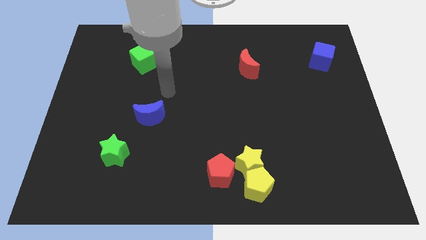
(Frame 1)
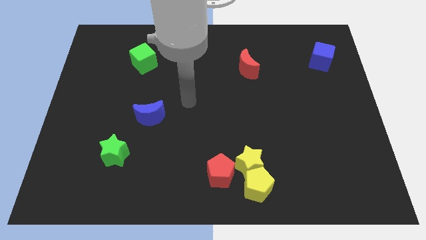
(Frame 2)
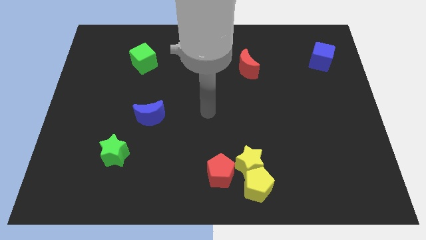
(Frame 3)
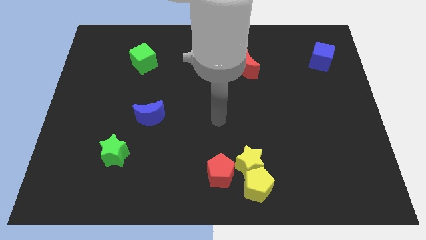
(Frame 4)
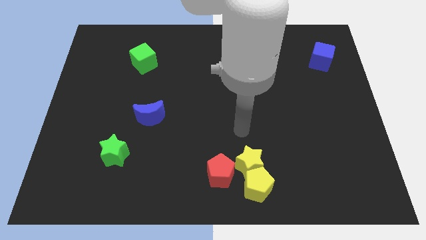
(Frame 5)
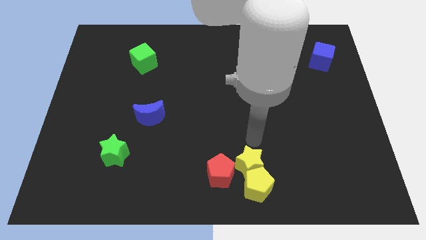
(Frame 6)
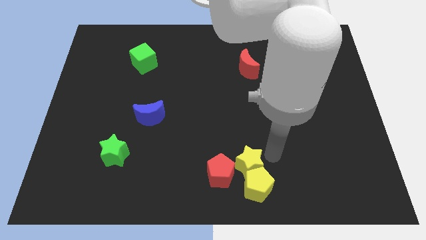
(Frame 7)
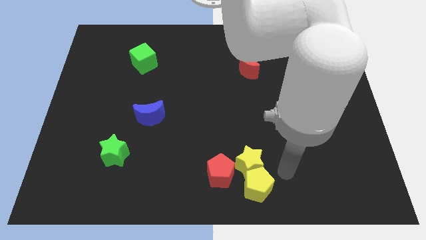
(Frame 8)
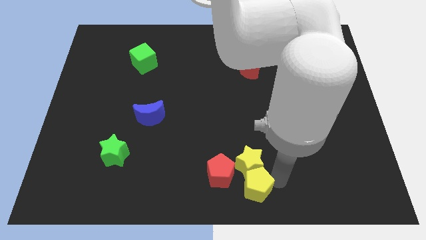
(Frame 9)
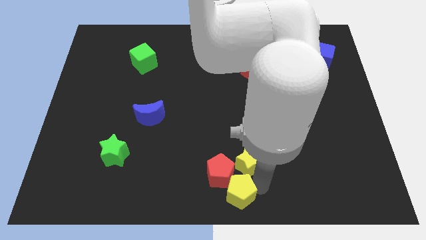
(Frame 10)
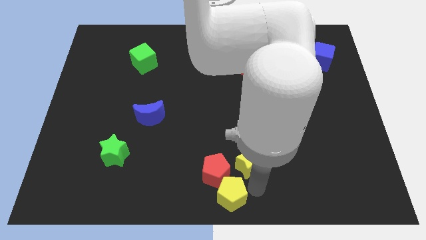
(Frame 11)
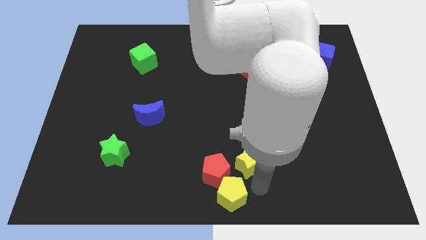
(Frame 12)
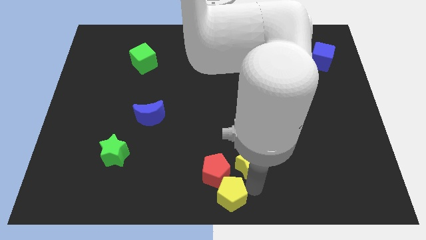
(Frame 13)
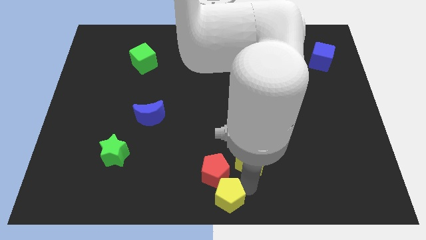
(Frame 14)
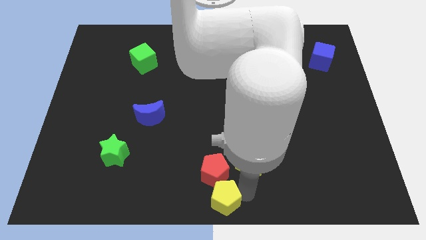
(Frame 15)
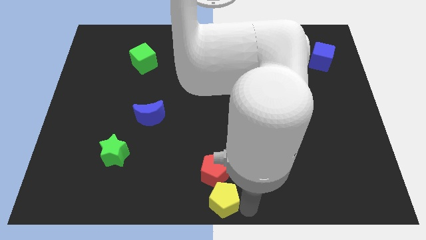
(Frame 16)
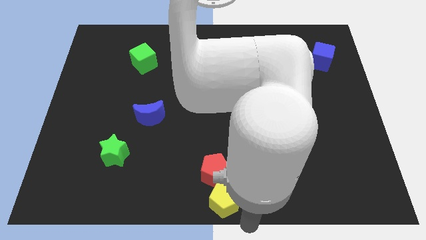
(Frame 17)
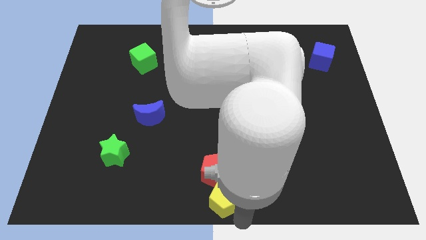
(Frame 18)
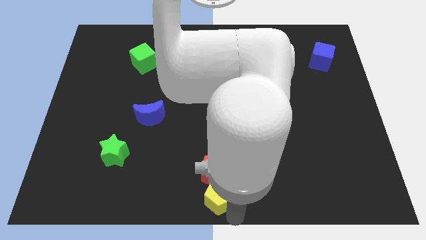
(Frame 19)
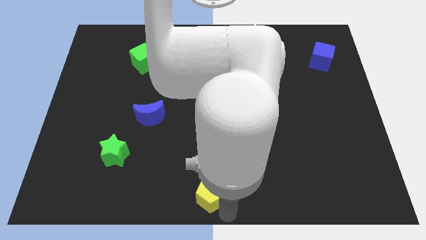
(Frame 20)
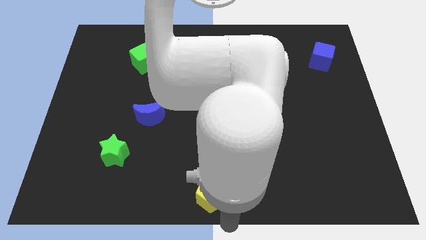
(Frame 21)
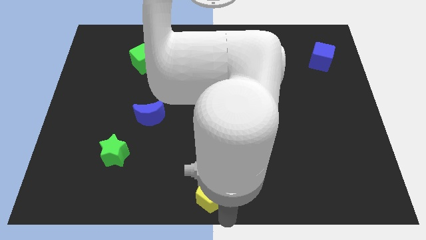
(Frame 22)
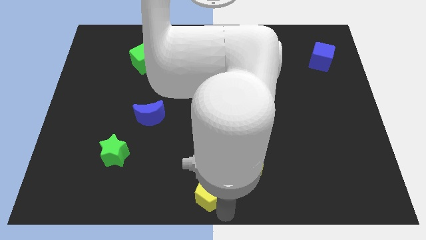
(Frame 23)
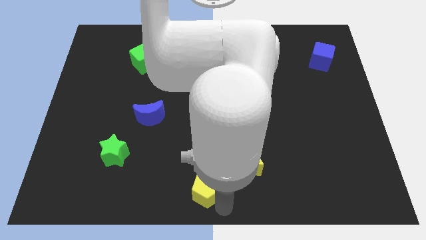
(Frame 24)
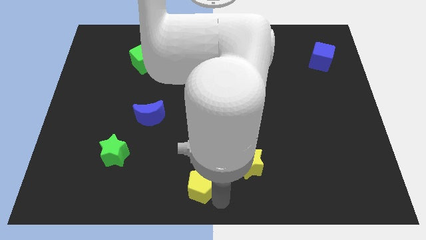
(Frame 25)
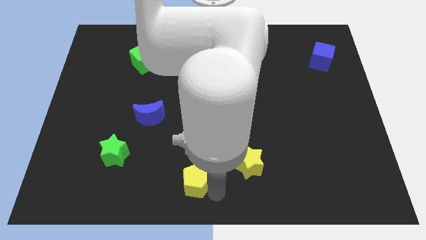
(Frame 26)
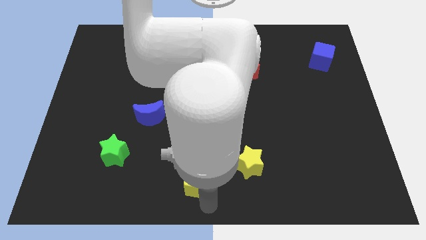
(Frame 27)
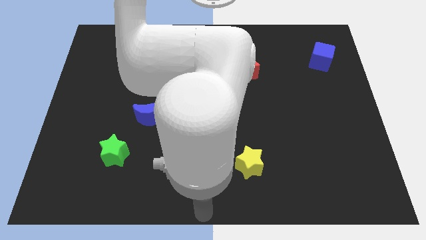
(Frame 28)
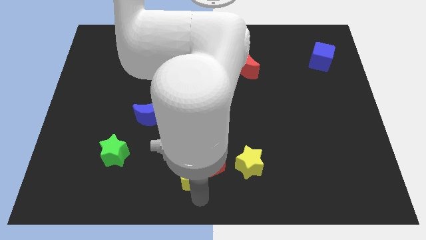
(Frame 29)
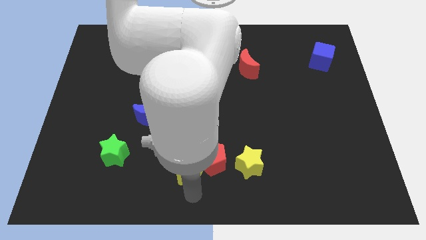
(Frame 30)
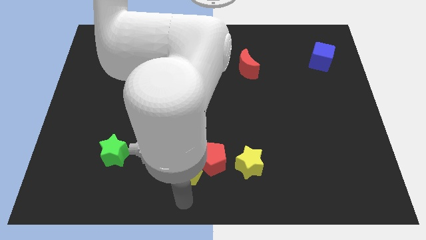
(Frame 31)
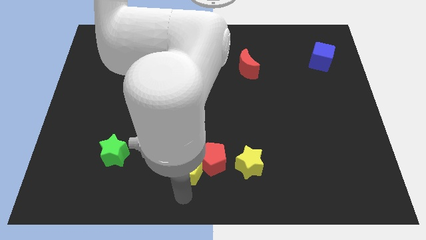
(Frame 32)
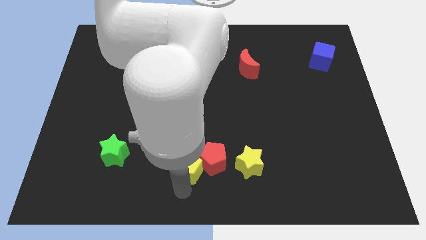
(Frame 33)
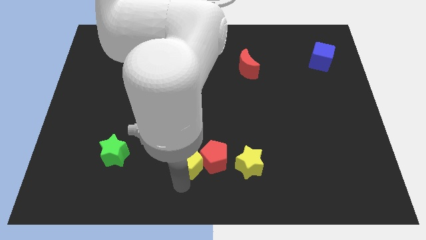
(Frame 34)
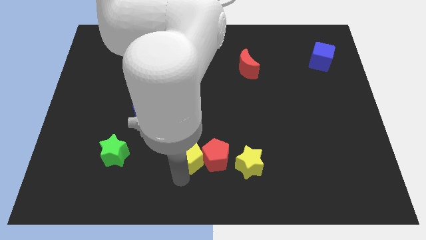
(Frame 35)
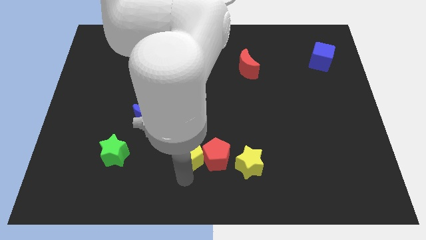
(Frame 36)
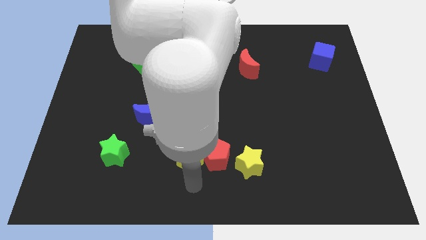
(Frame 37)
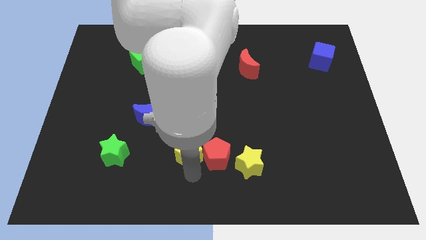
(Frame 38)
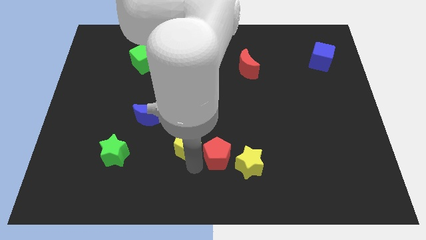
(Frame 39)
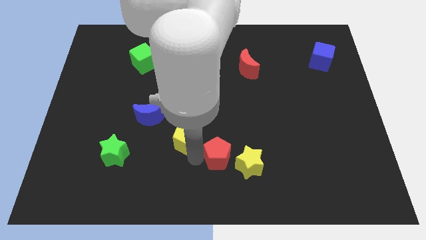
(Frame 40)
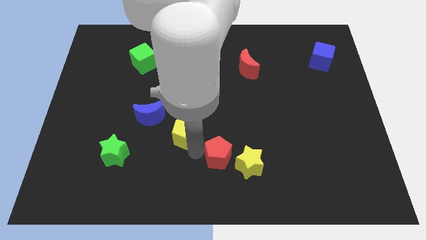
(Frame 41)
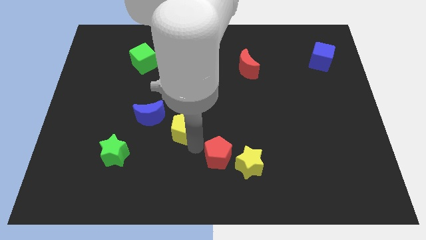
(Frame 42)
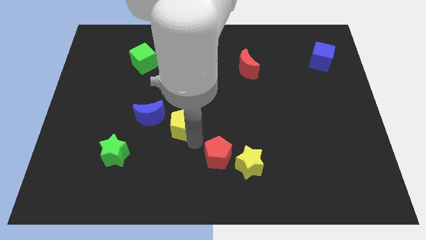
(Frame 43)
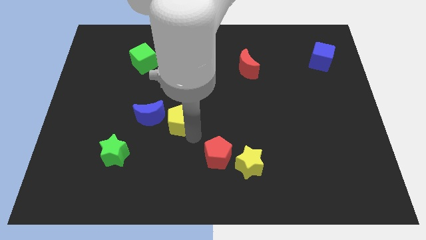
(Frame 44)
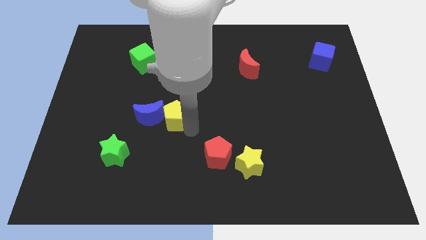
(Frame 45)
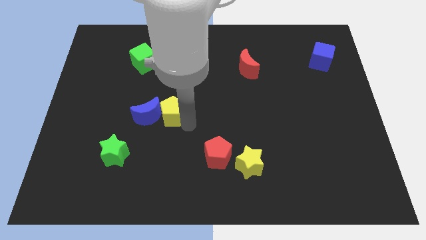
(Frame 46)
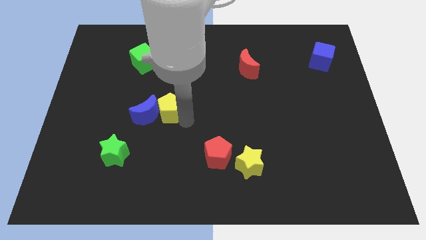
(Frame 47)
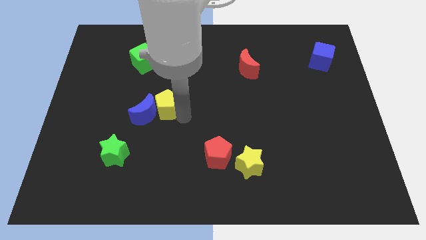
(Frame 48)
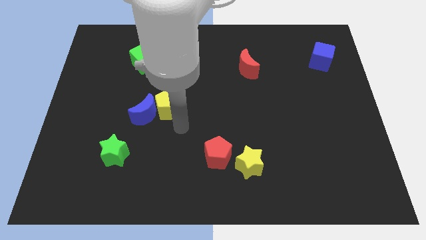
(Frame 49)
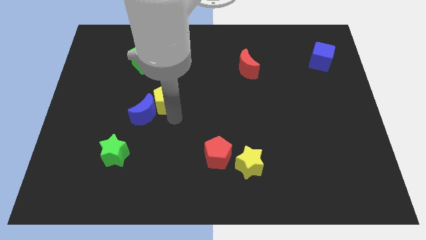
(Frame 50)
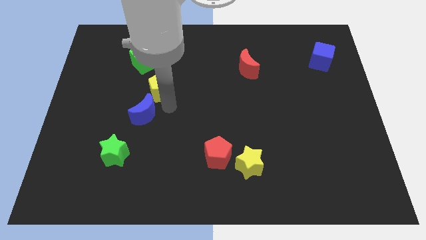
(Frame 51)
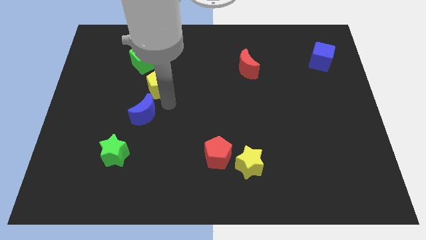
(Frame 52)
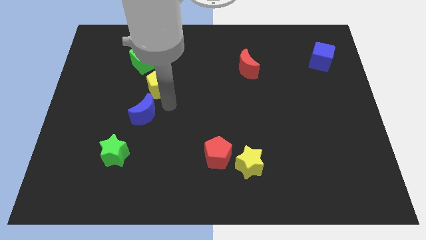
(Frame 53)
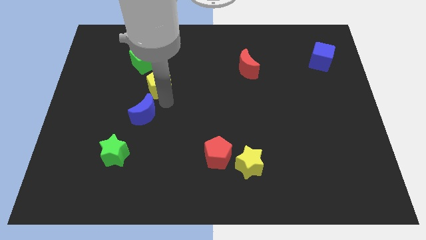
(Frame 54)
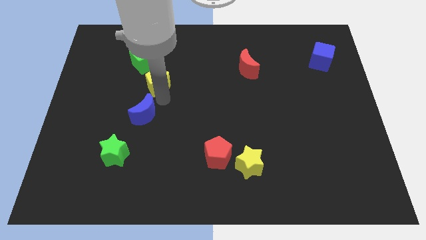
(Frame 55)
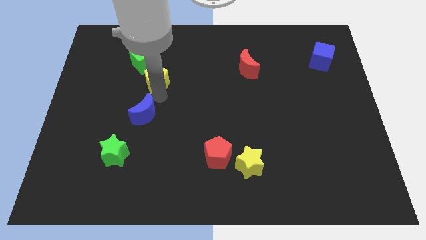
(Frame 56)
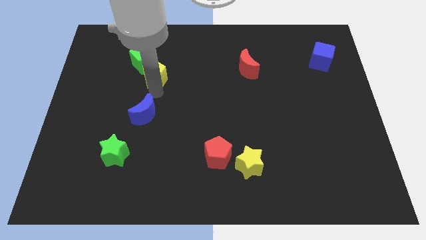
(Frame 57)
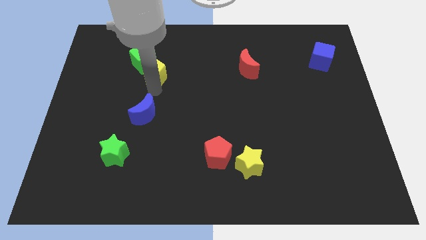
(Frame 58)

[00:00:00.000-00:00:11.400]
slide the yellow pentagon next to the green cube

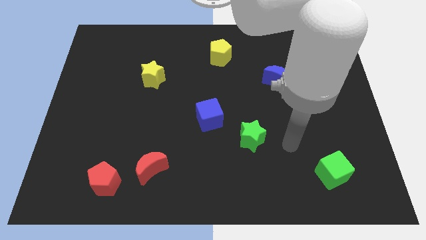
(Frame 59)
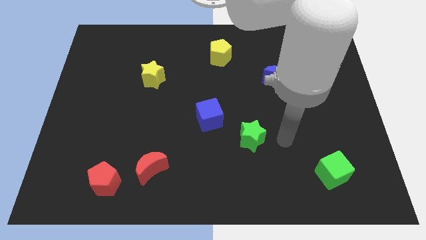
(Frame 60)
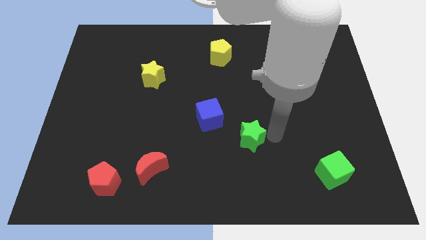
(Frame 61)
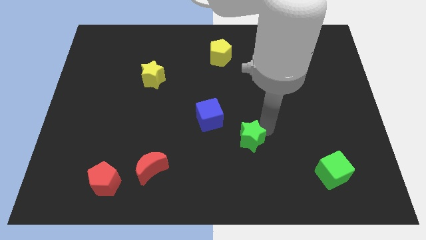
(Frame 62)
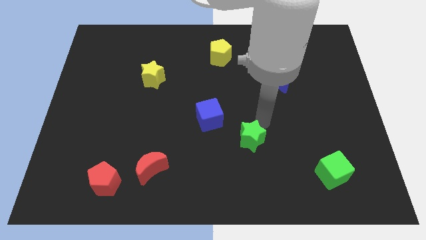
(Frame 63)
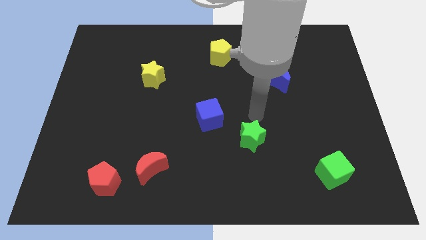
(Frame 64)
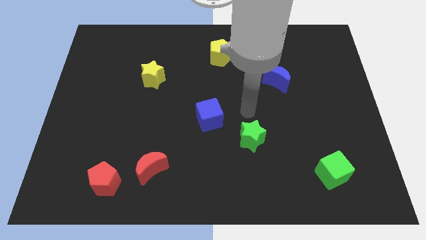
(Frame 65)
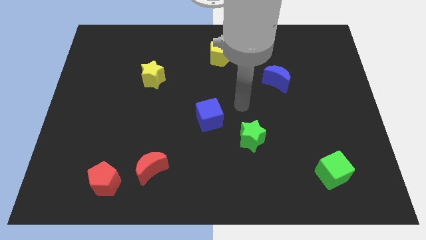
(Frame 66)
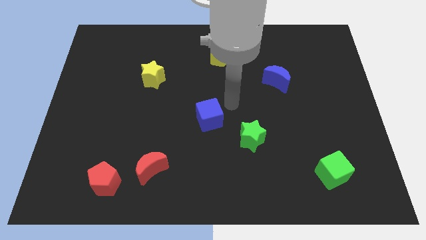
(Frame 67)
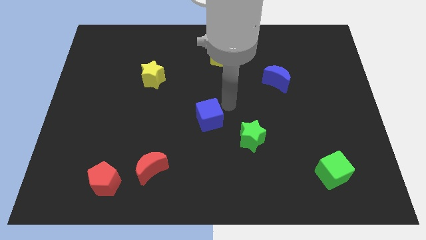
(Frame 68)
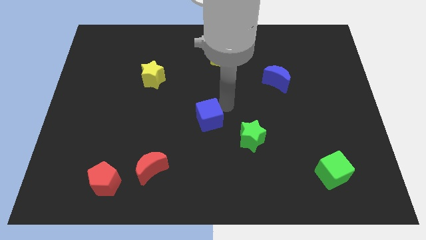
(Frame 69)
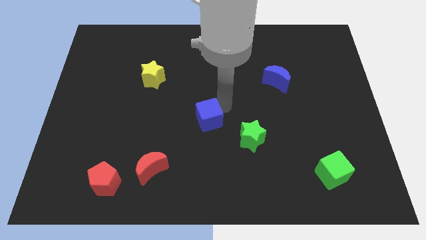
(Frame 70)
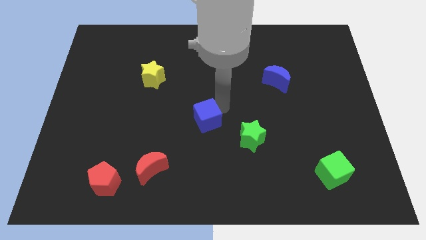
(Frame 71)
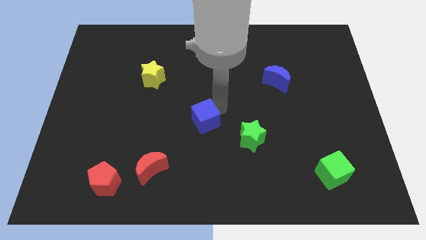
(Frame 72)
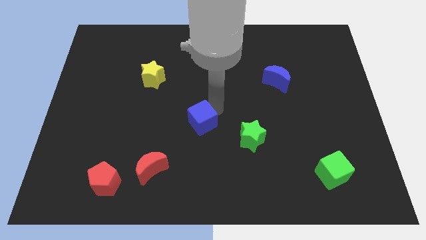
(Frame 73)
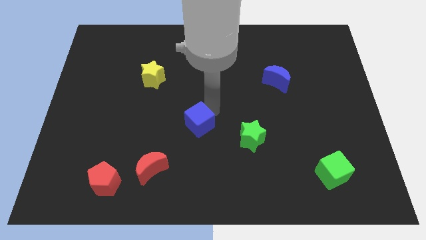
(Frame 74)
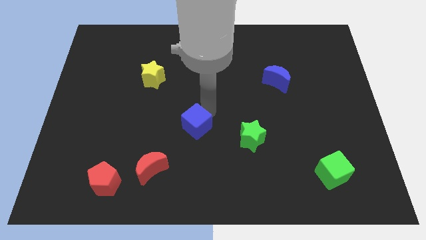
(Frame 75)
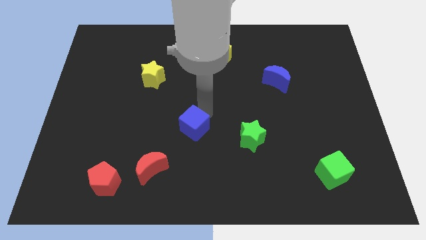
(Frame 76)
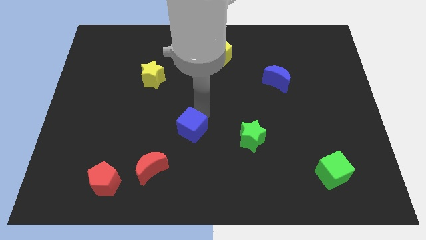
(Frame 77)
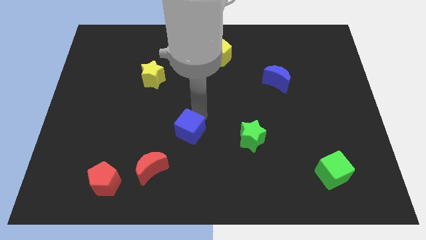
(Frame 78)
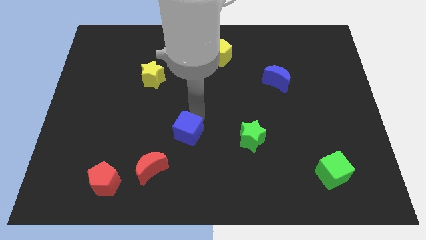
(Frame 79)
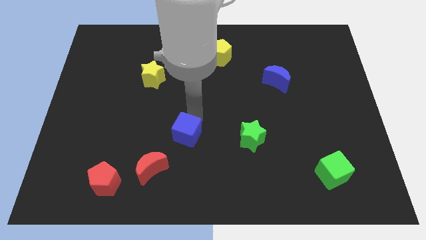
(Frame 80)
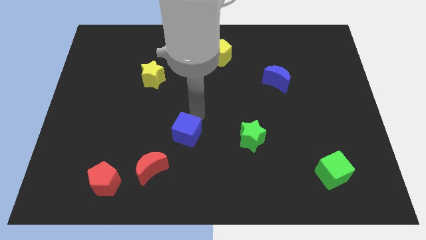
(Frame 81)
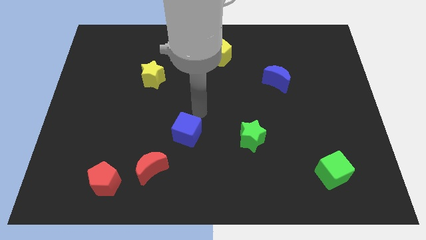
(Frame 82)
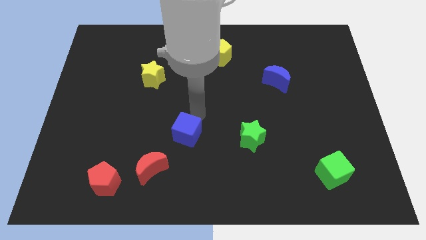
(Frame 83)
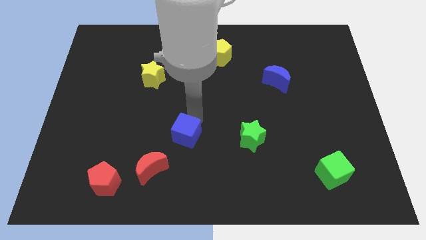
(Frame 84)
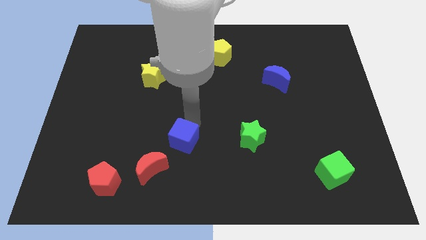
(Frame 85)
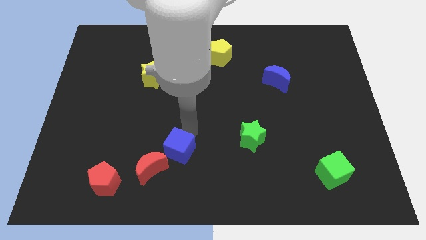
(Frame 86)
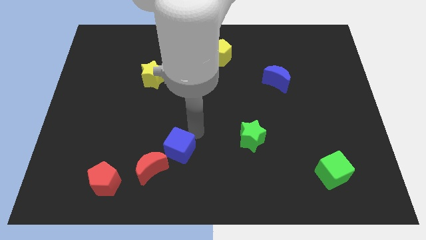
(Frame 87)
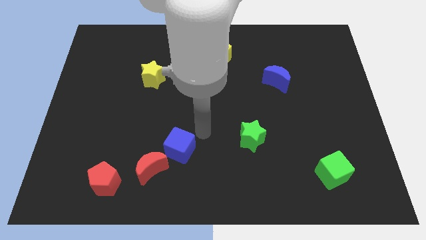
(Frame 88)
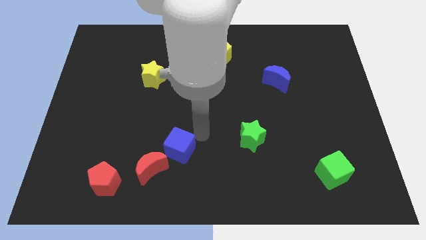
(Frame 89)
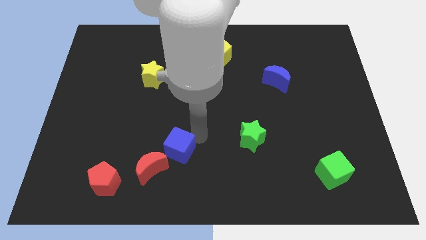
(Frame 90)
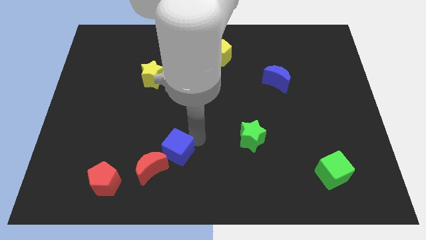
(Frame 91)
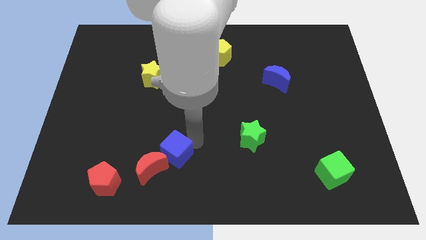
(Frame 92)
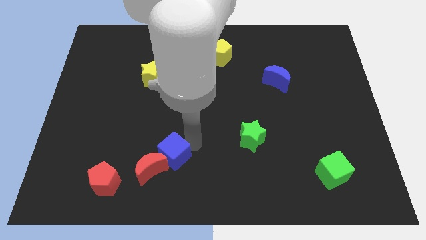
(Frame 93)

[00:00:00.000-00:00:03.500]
push the blue cube next to the red moon
